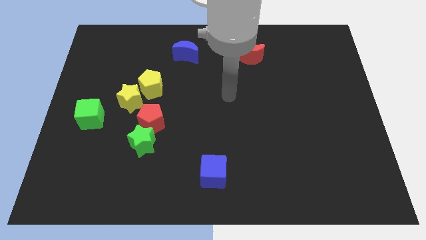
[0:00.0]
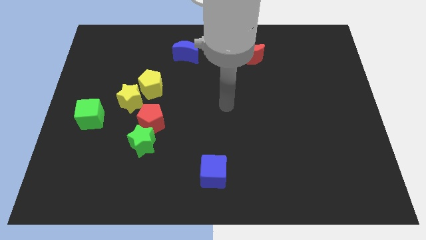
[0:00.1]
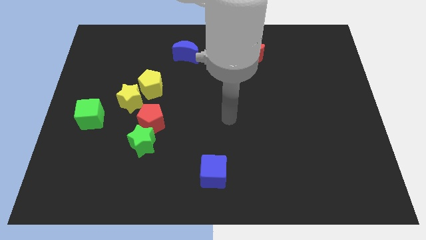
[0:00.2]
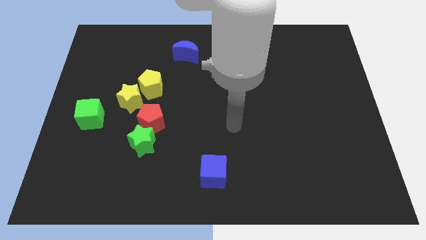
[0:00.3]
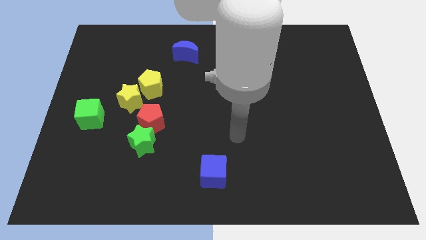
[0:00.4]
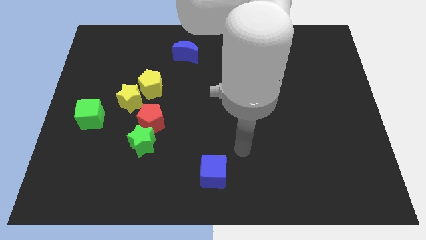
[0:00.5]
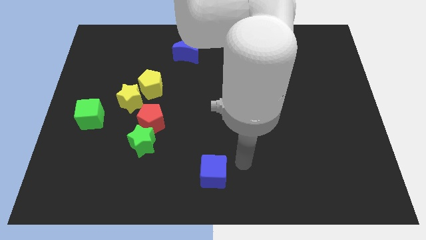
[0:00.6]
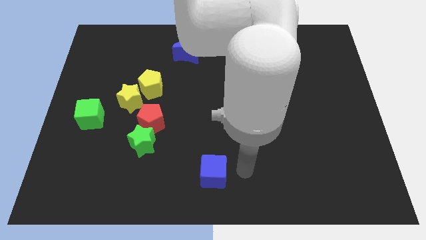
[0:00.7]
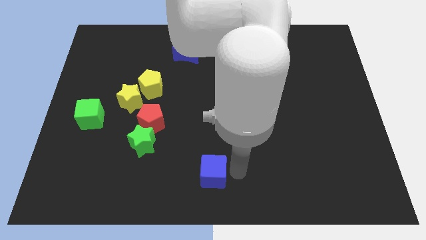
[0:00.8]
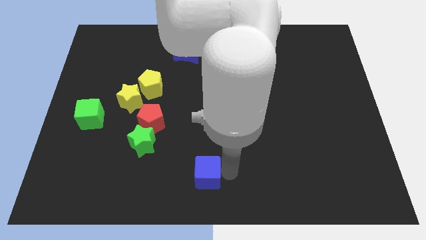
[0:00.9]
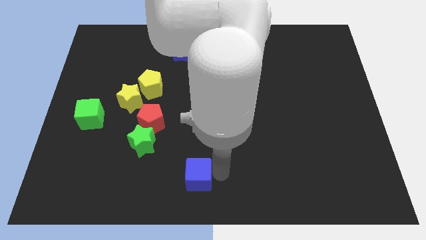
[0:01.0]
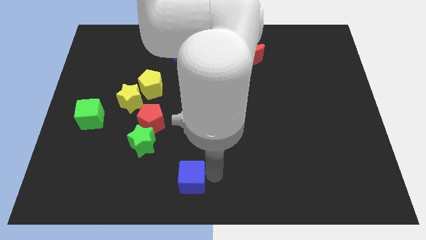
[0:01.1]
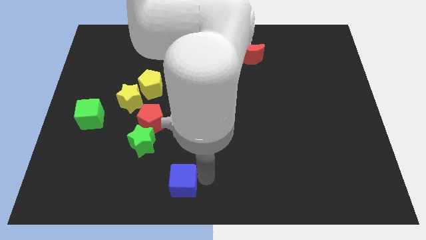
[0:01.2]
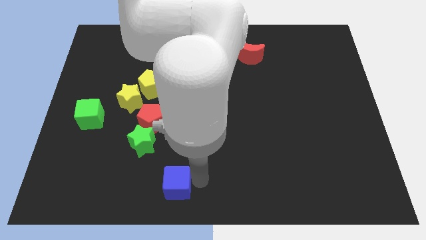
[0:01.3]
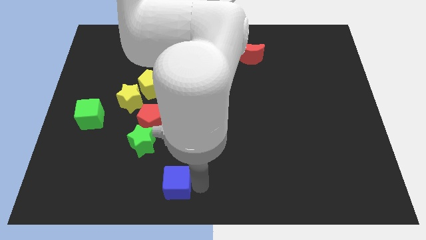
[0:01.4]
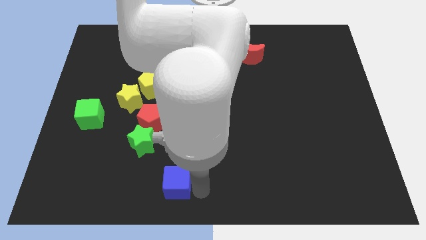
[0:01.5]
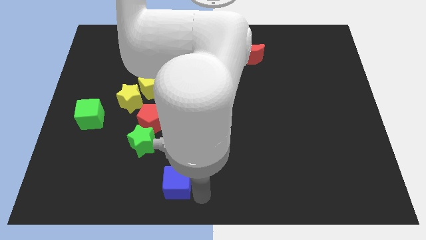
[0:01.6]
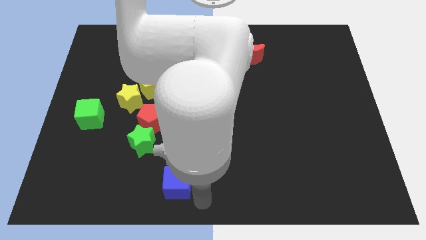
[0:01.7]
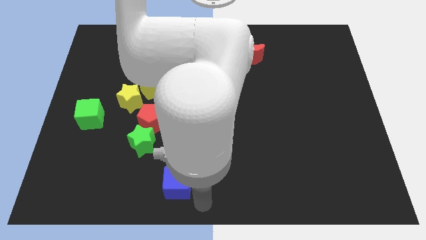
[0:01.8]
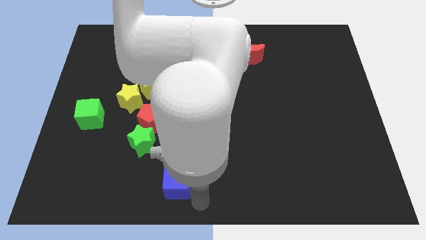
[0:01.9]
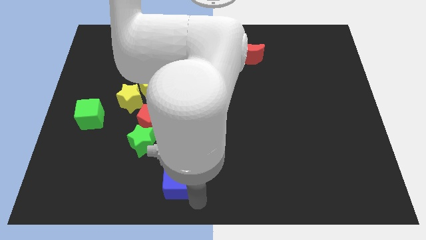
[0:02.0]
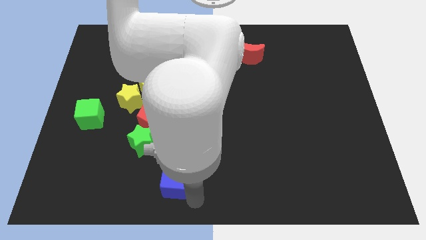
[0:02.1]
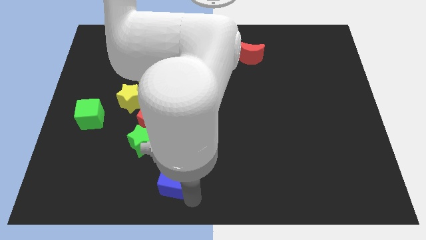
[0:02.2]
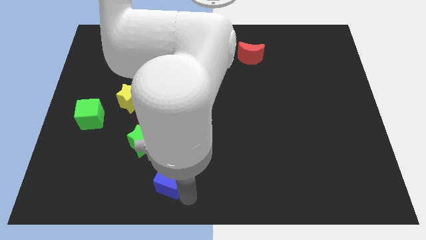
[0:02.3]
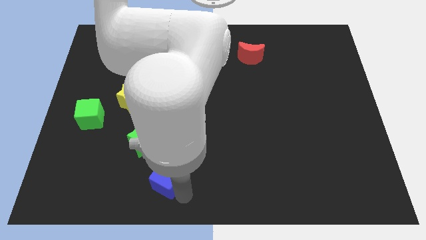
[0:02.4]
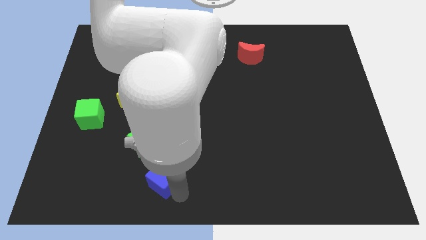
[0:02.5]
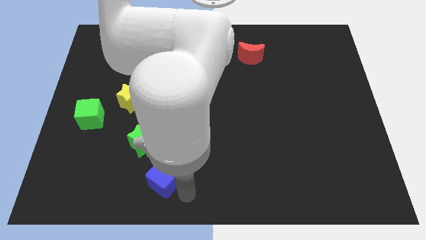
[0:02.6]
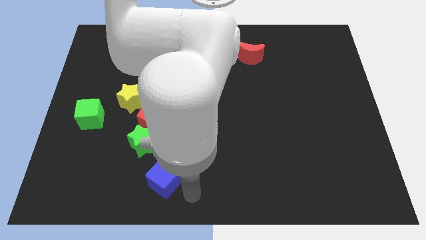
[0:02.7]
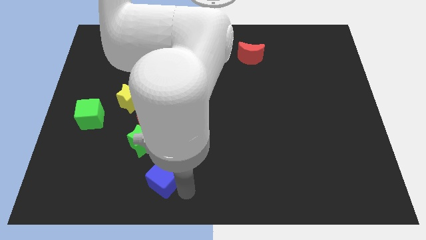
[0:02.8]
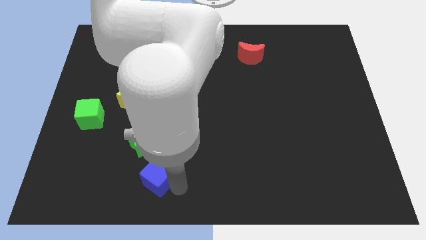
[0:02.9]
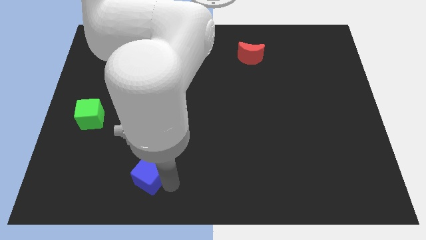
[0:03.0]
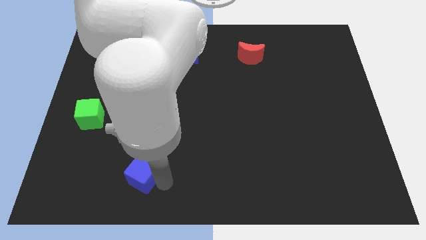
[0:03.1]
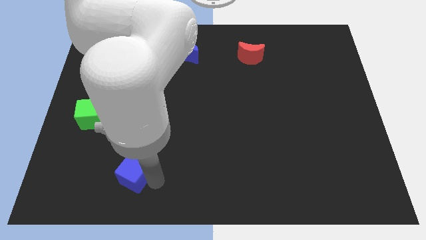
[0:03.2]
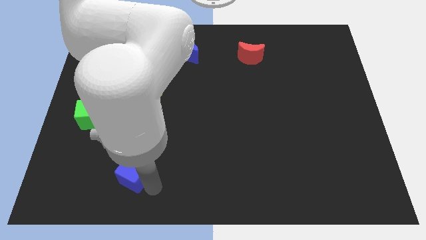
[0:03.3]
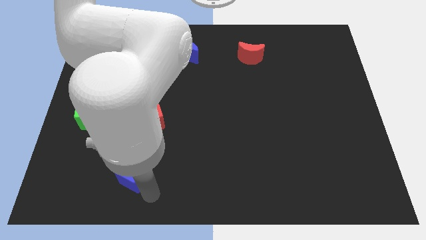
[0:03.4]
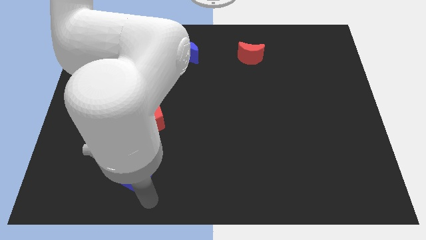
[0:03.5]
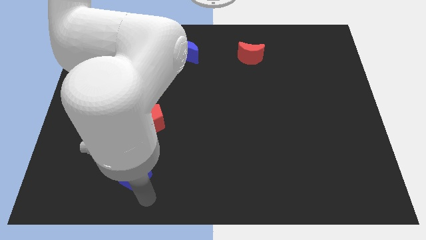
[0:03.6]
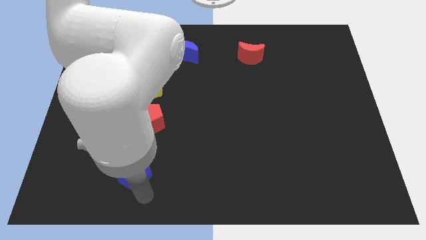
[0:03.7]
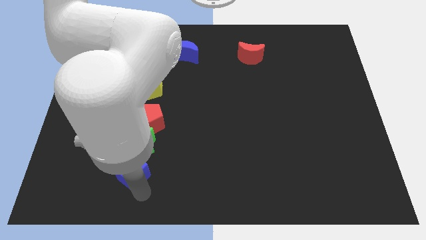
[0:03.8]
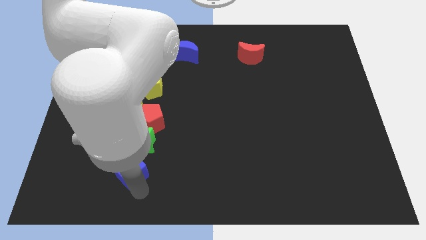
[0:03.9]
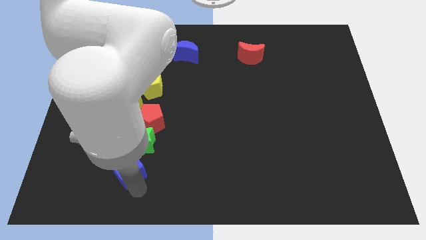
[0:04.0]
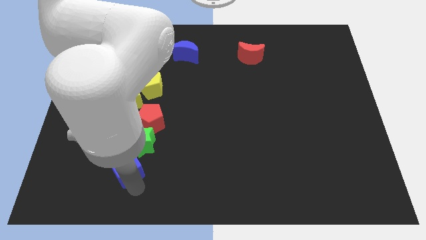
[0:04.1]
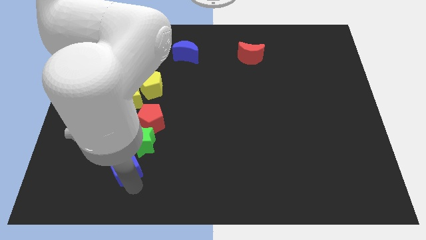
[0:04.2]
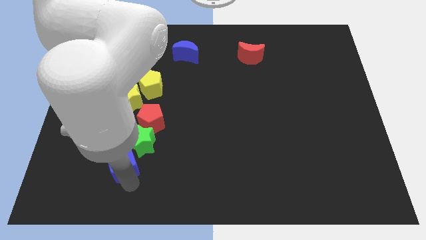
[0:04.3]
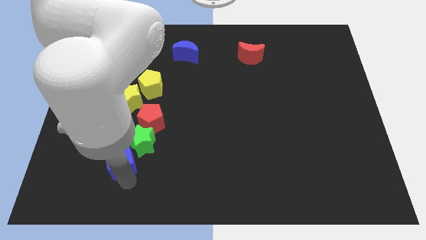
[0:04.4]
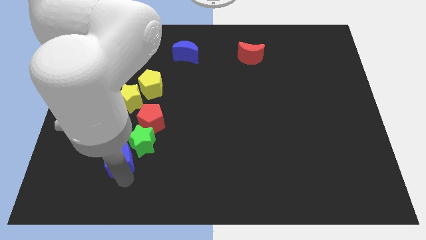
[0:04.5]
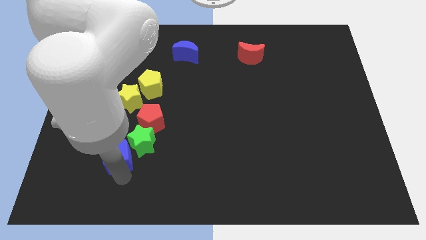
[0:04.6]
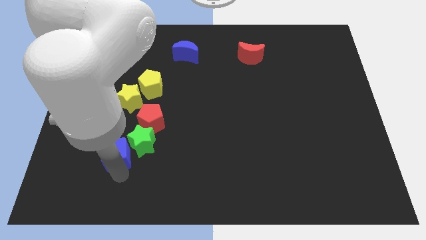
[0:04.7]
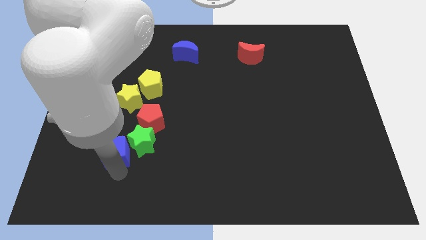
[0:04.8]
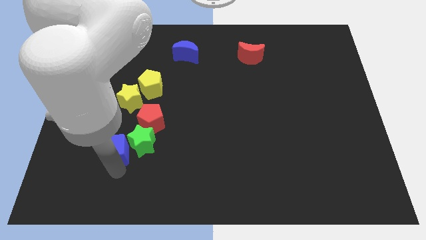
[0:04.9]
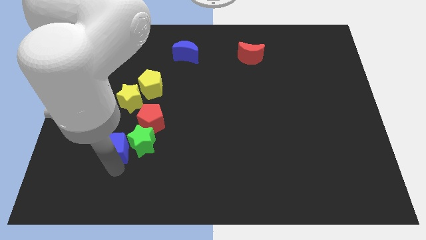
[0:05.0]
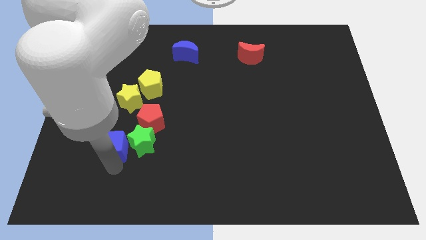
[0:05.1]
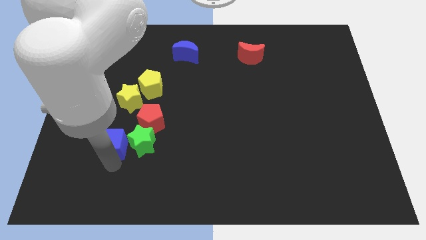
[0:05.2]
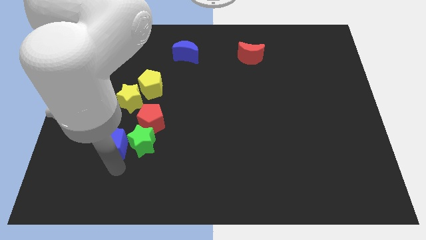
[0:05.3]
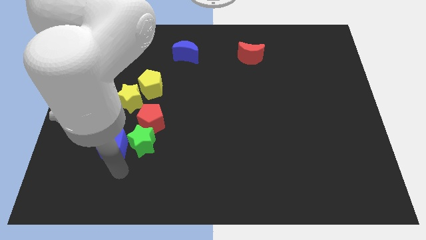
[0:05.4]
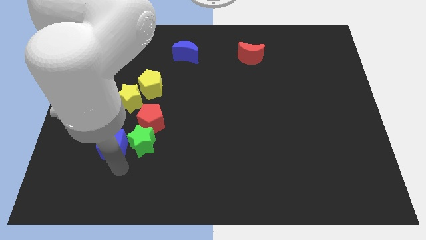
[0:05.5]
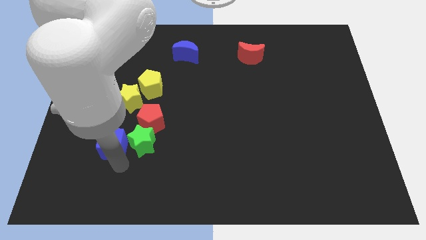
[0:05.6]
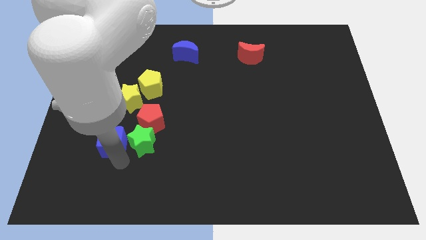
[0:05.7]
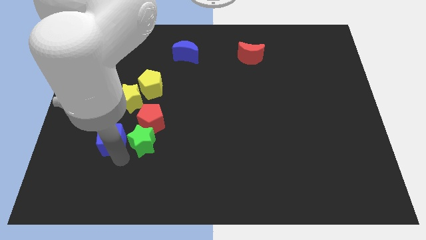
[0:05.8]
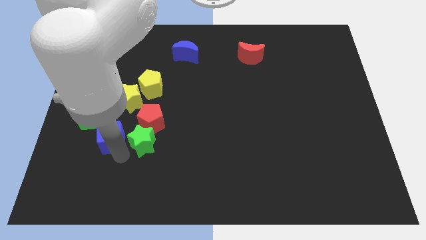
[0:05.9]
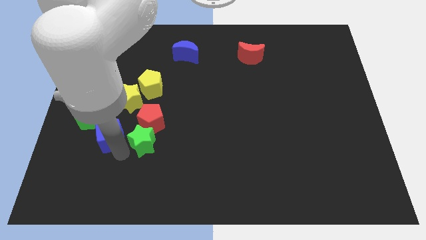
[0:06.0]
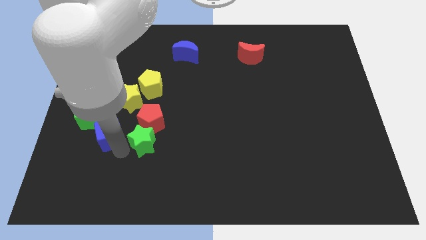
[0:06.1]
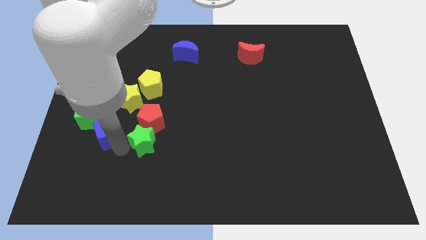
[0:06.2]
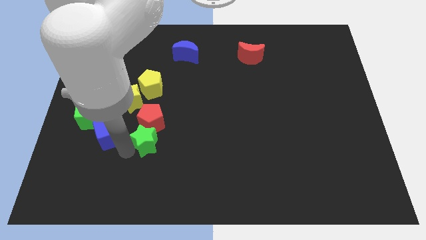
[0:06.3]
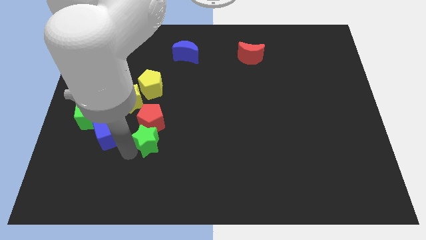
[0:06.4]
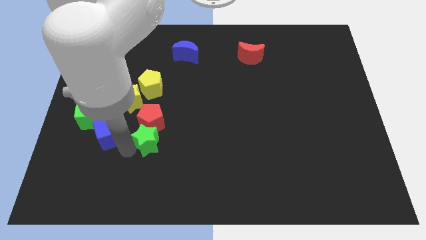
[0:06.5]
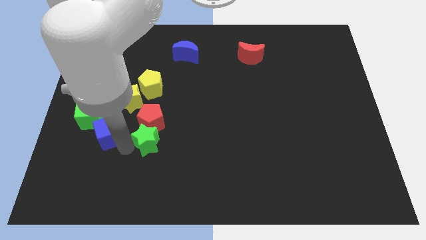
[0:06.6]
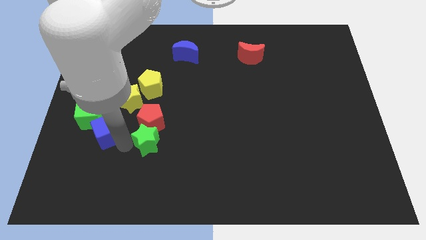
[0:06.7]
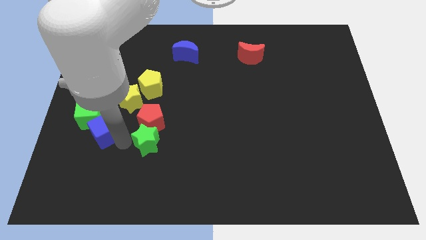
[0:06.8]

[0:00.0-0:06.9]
push the blue cube close to the green cube
